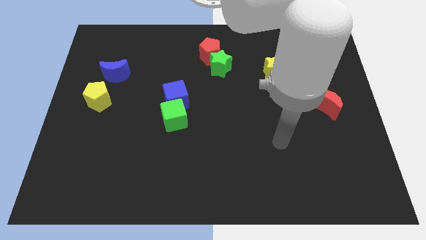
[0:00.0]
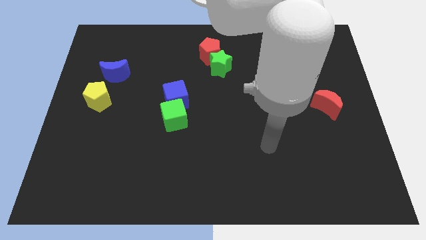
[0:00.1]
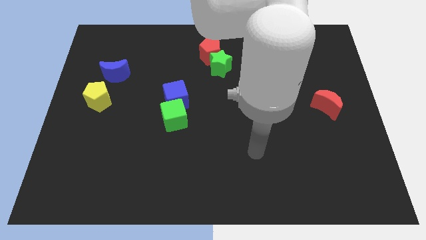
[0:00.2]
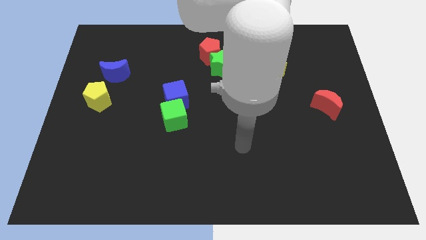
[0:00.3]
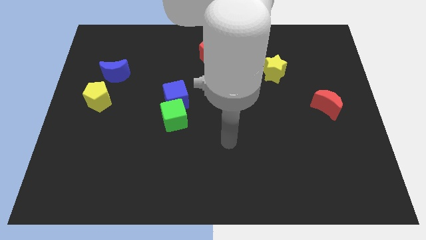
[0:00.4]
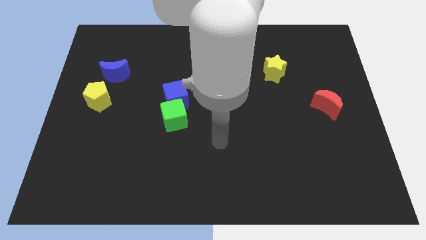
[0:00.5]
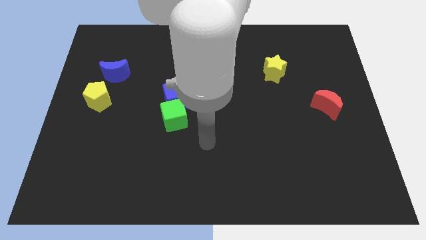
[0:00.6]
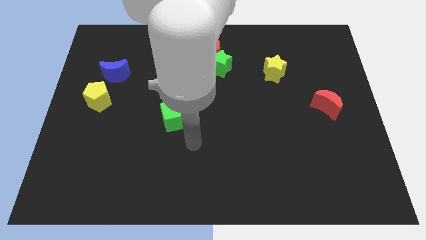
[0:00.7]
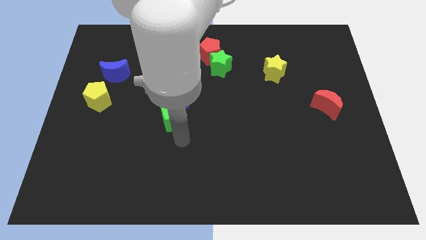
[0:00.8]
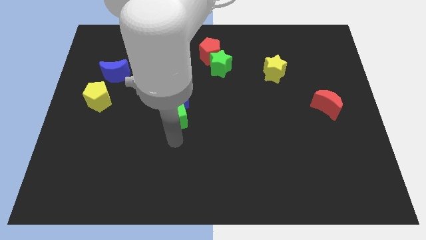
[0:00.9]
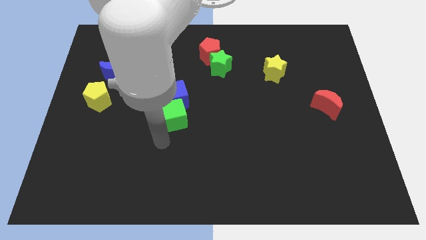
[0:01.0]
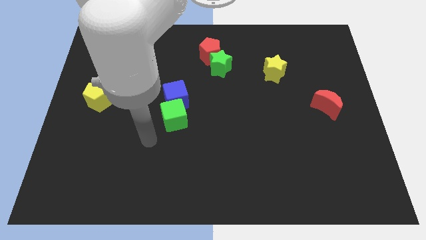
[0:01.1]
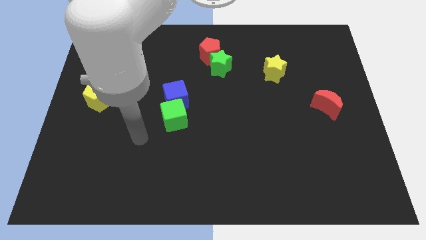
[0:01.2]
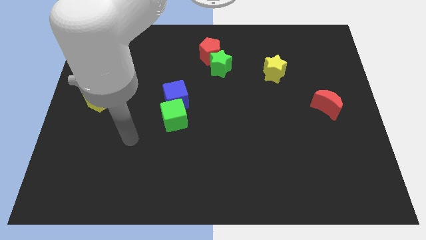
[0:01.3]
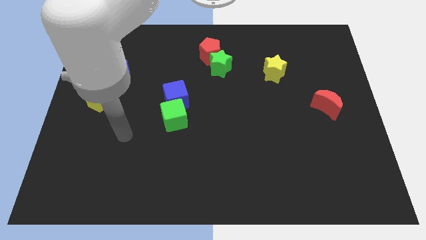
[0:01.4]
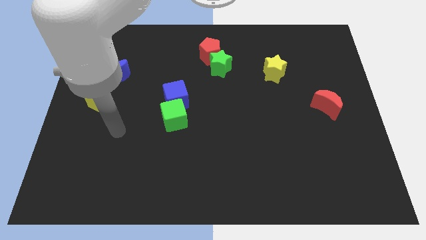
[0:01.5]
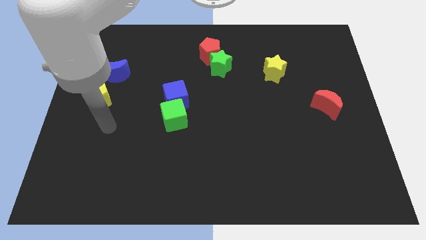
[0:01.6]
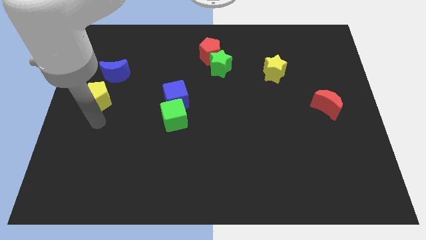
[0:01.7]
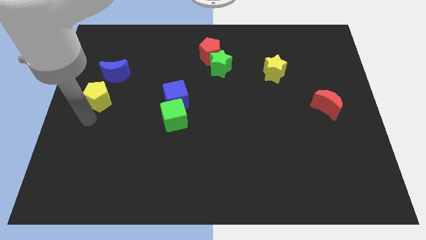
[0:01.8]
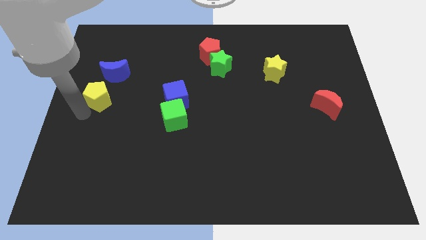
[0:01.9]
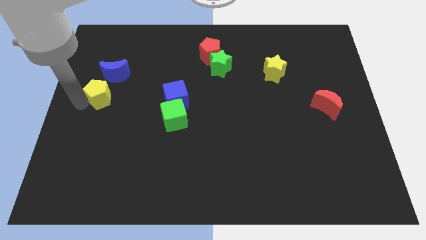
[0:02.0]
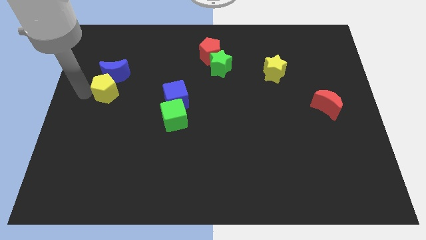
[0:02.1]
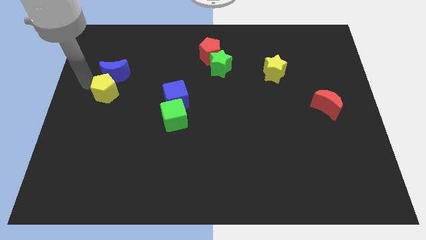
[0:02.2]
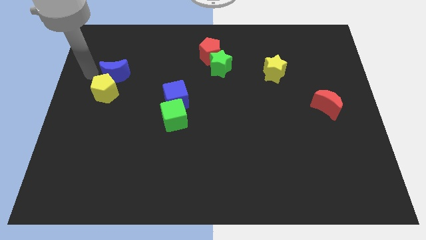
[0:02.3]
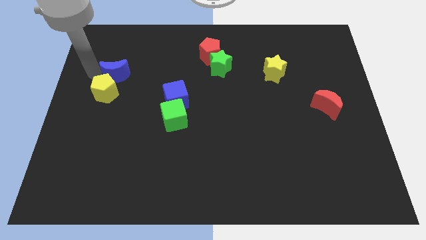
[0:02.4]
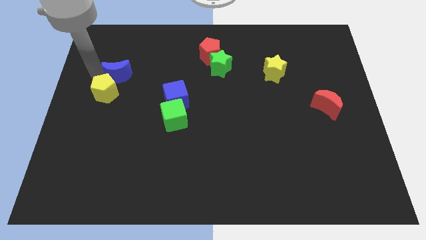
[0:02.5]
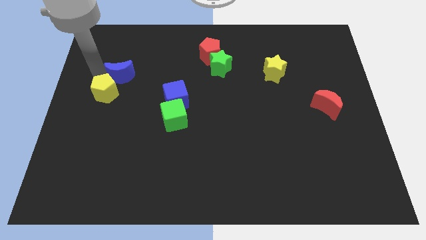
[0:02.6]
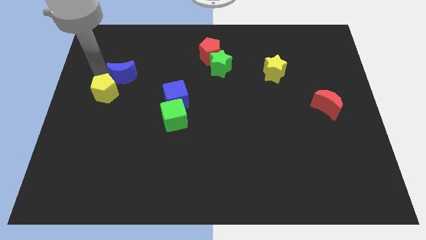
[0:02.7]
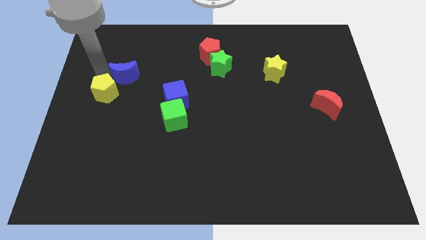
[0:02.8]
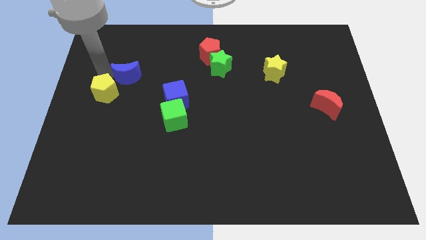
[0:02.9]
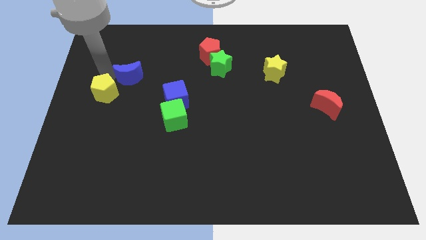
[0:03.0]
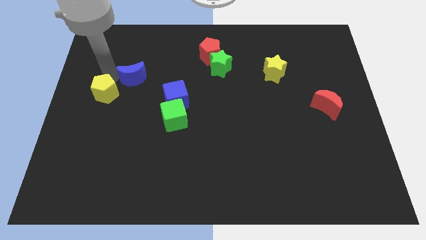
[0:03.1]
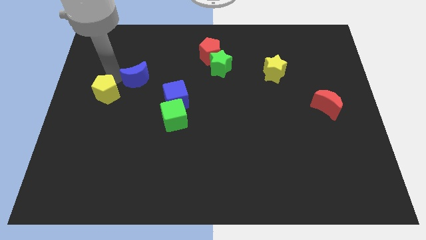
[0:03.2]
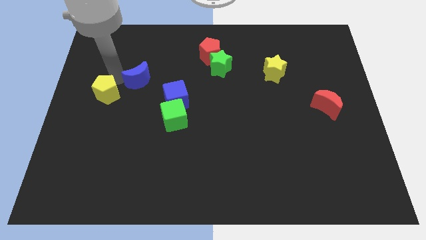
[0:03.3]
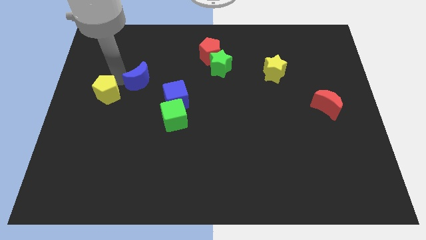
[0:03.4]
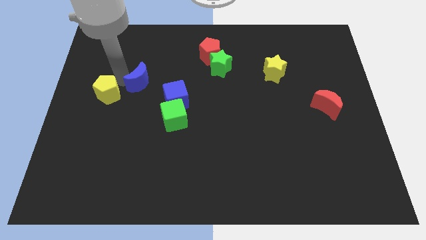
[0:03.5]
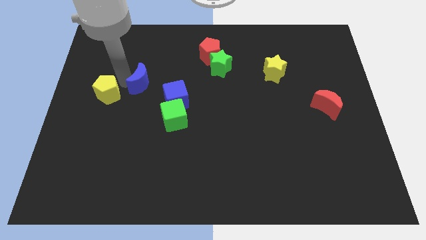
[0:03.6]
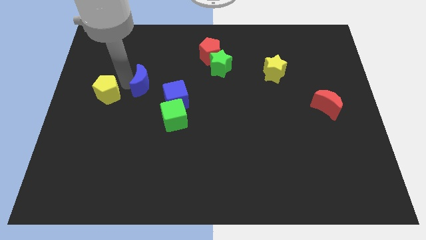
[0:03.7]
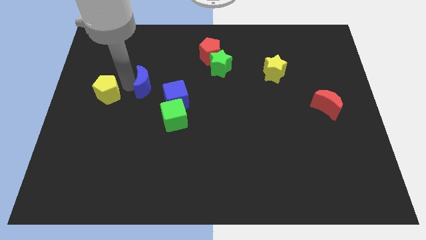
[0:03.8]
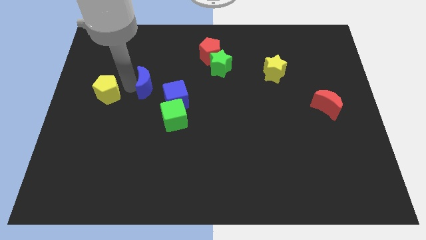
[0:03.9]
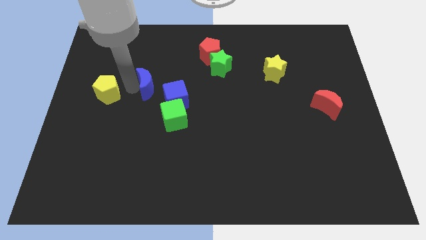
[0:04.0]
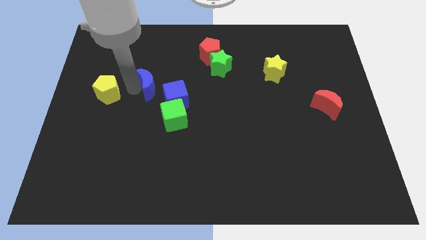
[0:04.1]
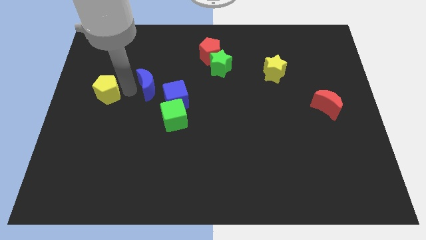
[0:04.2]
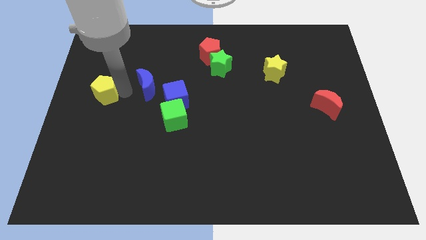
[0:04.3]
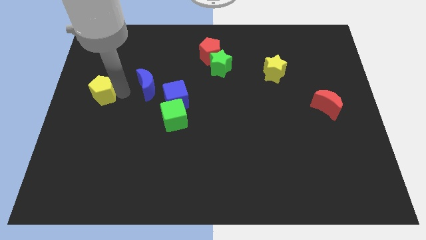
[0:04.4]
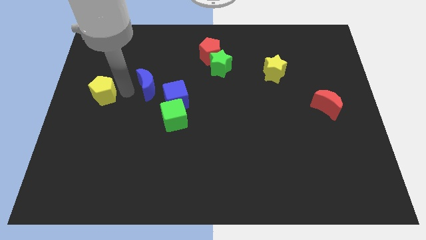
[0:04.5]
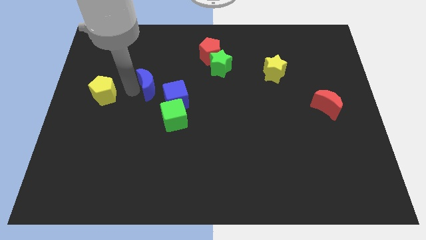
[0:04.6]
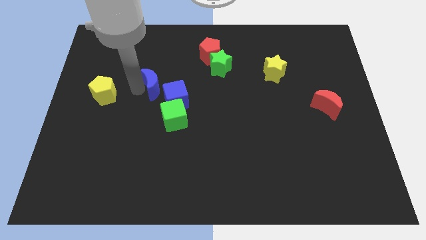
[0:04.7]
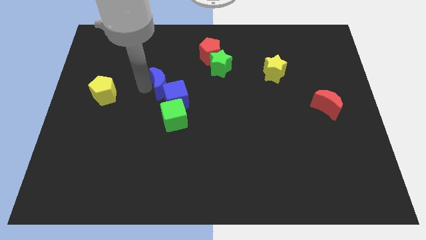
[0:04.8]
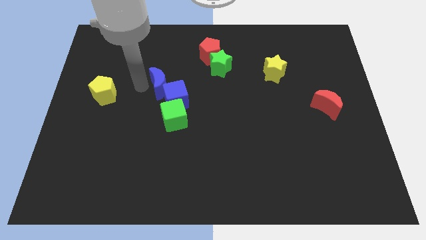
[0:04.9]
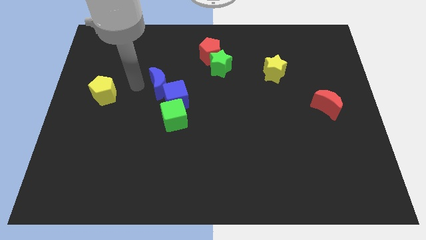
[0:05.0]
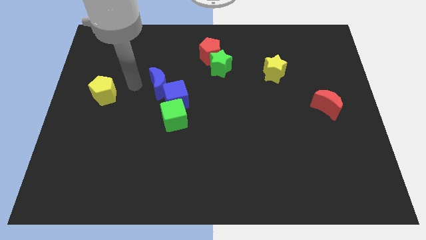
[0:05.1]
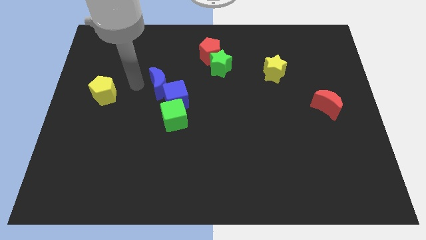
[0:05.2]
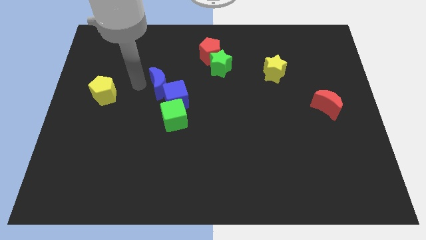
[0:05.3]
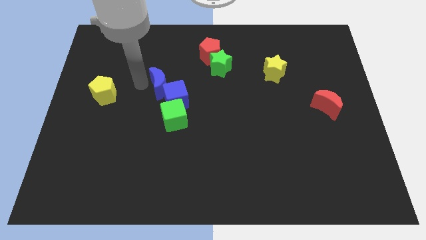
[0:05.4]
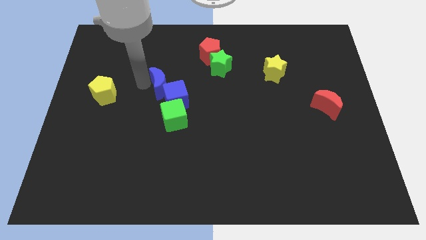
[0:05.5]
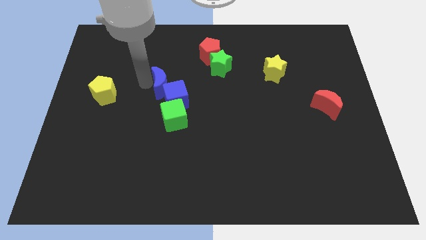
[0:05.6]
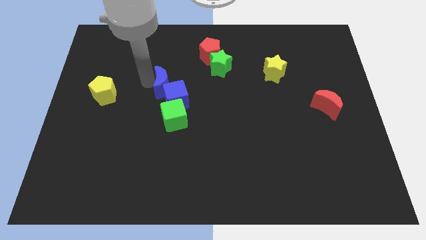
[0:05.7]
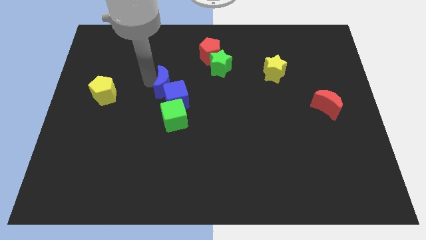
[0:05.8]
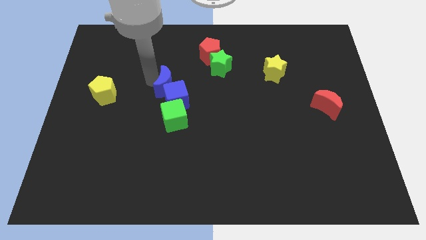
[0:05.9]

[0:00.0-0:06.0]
move the blue moon to the middle of the board
